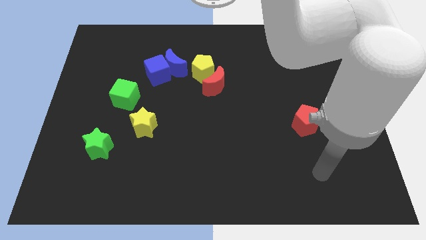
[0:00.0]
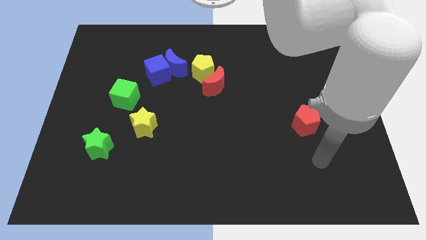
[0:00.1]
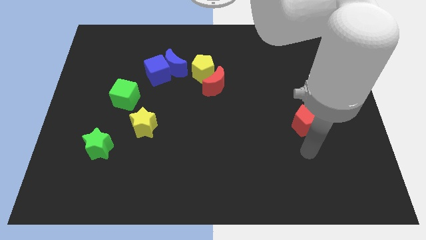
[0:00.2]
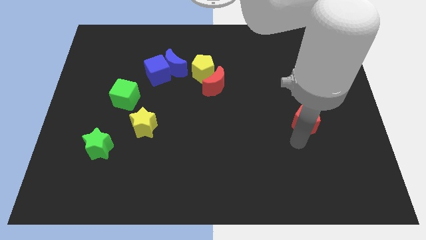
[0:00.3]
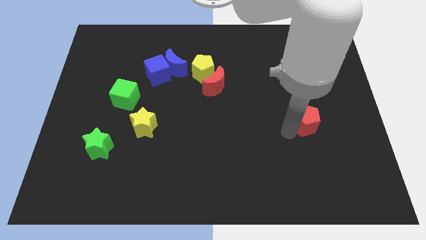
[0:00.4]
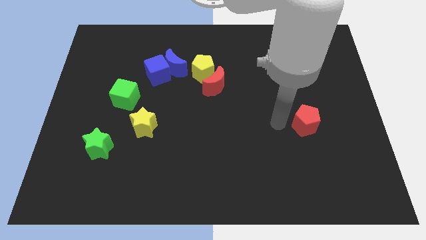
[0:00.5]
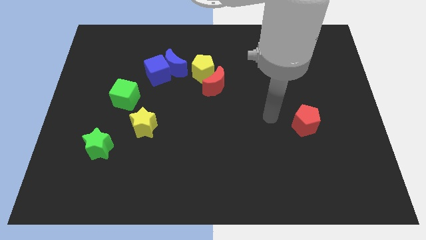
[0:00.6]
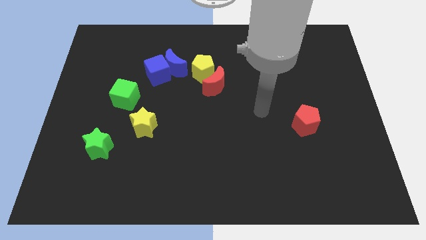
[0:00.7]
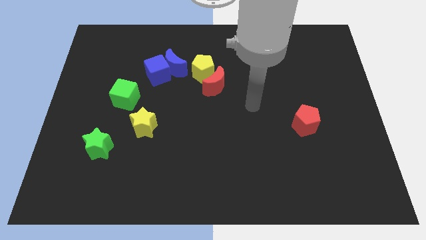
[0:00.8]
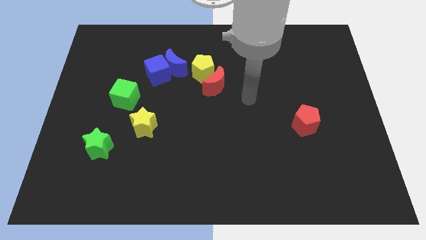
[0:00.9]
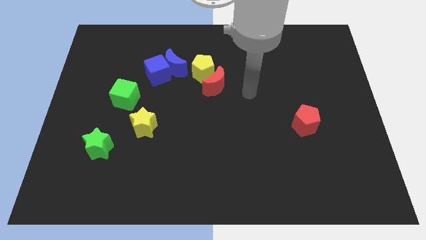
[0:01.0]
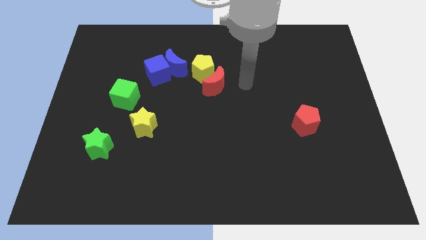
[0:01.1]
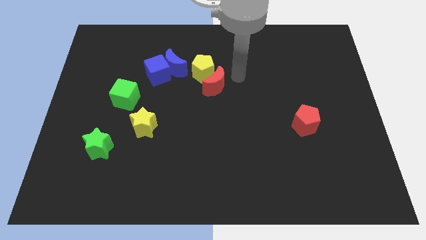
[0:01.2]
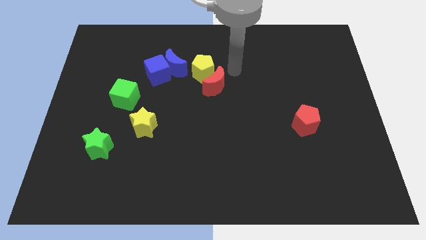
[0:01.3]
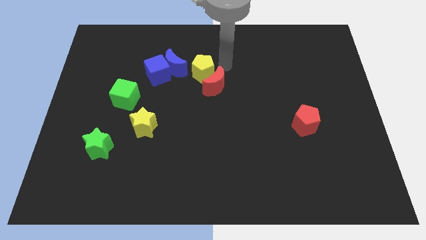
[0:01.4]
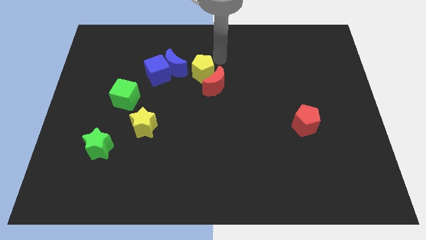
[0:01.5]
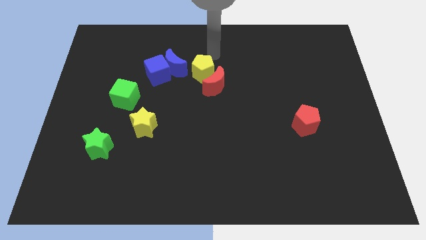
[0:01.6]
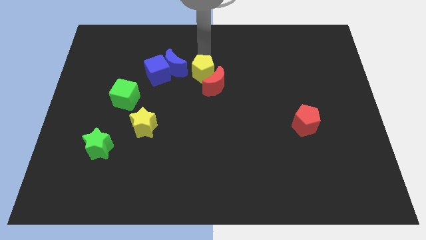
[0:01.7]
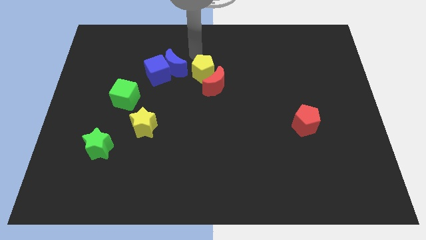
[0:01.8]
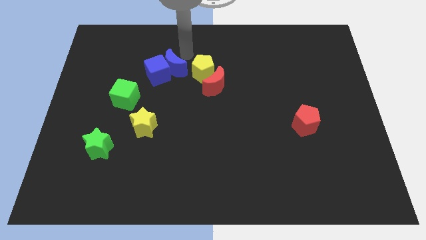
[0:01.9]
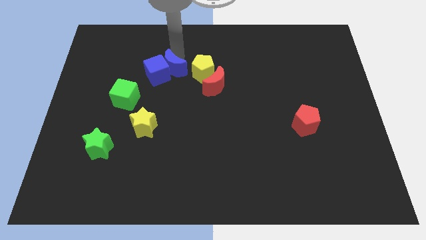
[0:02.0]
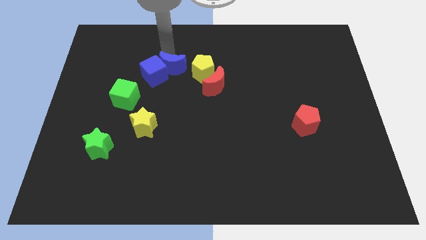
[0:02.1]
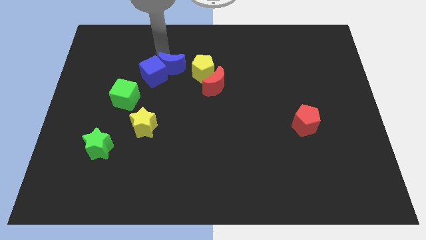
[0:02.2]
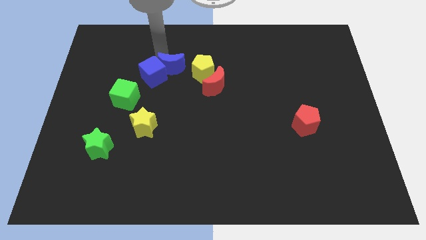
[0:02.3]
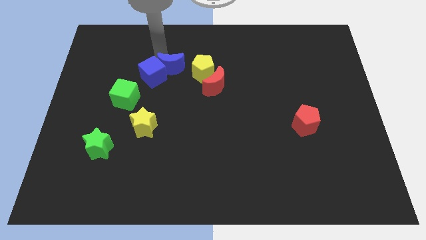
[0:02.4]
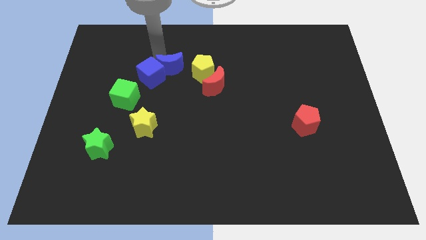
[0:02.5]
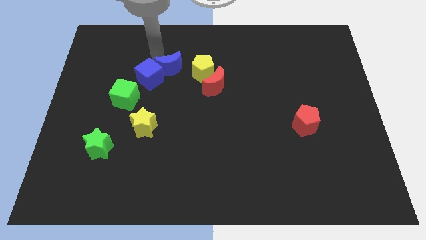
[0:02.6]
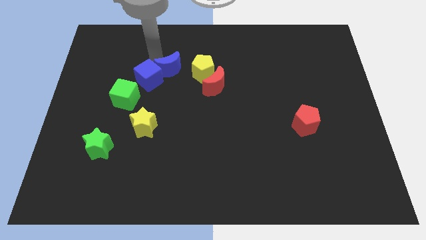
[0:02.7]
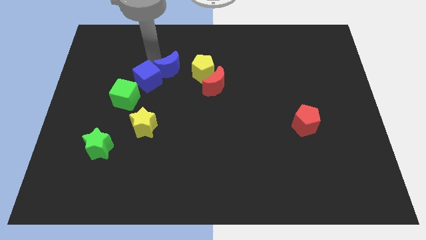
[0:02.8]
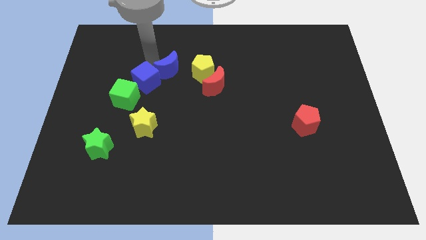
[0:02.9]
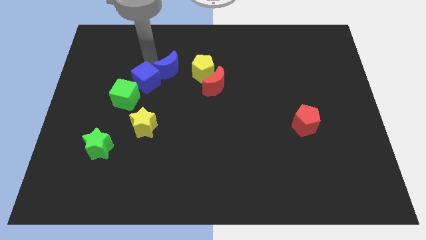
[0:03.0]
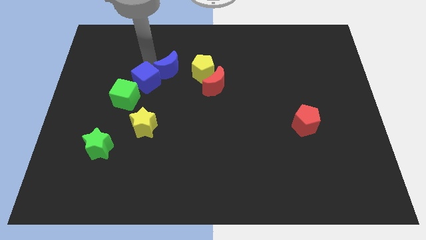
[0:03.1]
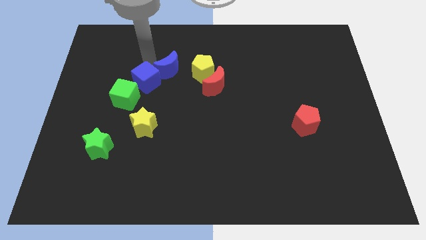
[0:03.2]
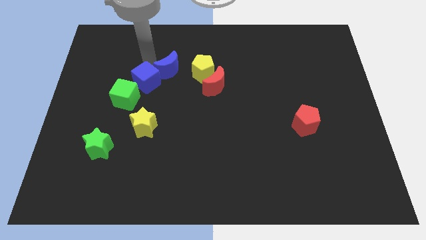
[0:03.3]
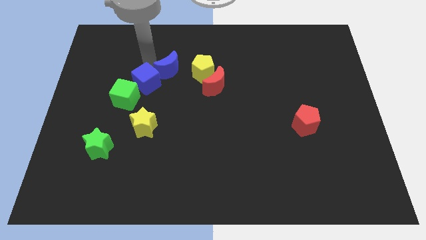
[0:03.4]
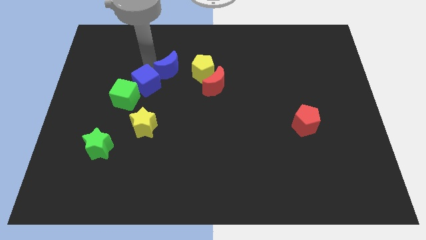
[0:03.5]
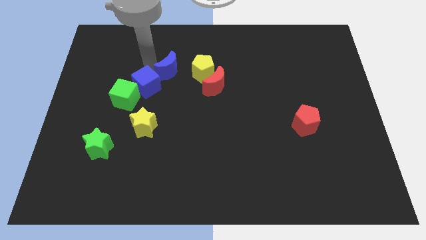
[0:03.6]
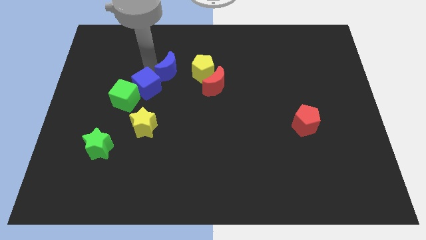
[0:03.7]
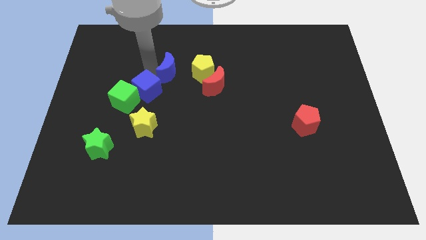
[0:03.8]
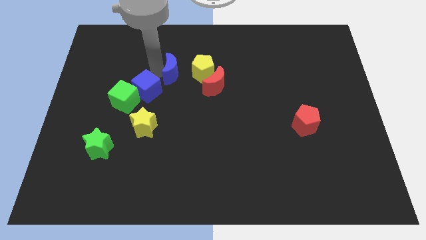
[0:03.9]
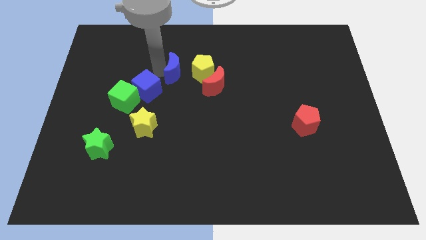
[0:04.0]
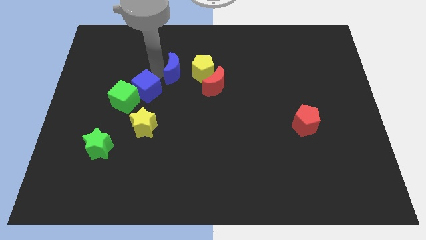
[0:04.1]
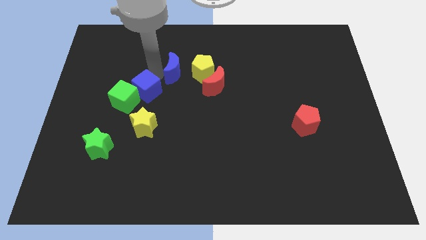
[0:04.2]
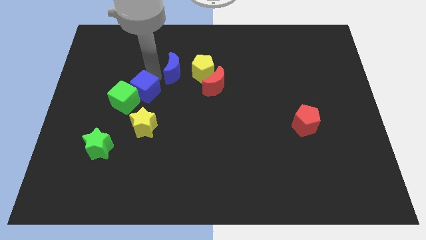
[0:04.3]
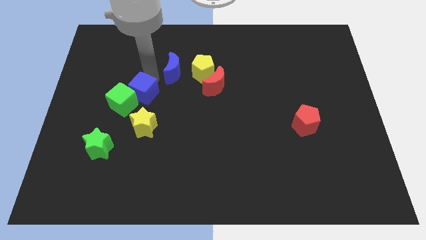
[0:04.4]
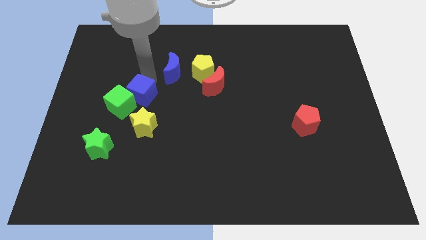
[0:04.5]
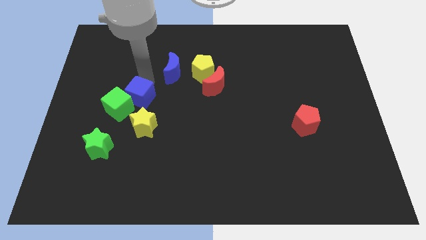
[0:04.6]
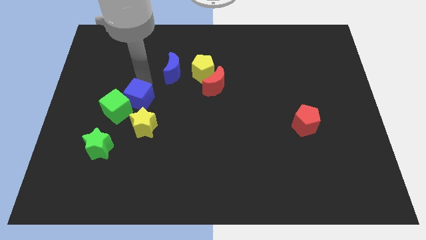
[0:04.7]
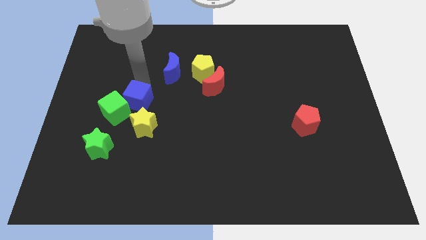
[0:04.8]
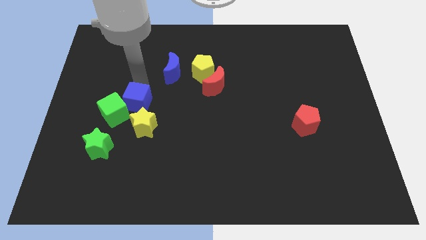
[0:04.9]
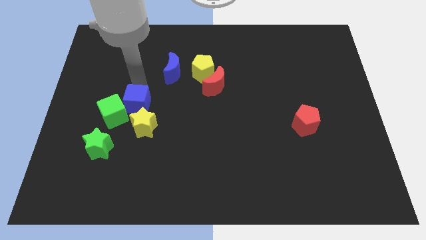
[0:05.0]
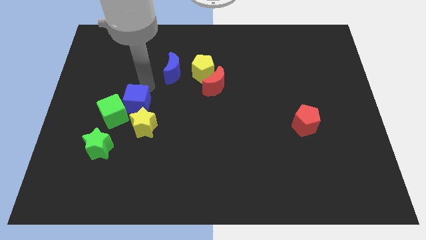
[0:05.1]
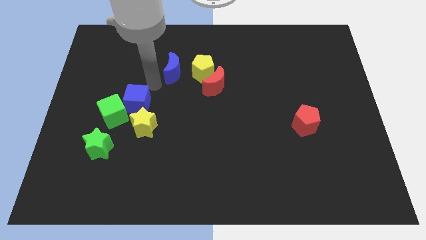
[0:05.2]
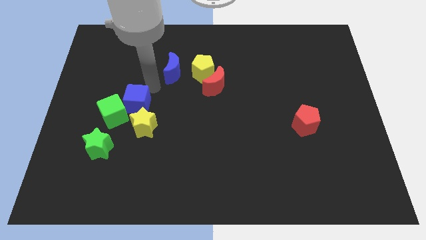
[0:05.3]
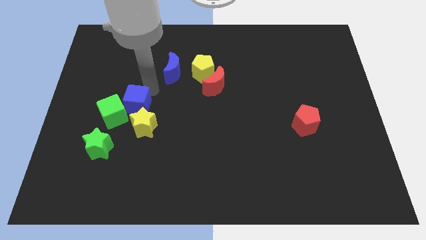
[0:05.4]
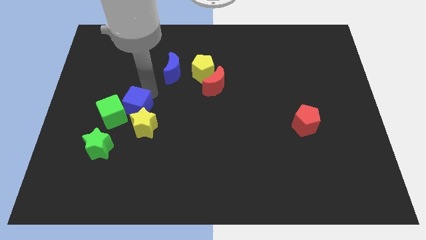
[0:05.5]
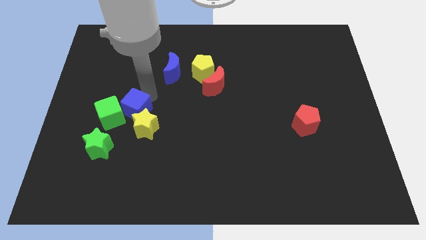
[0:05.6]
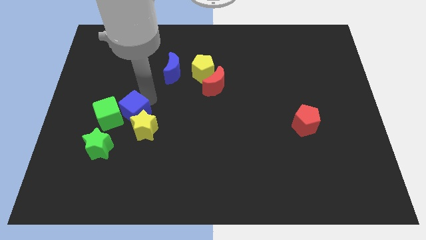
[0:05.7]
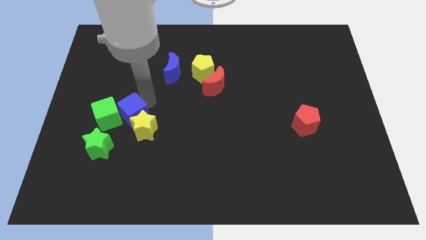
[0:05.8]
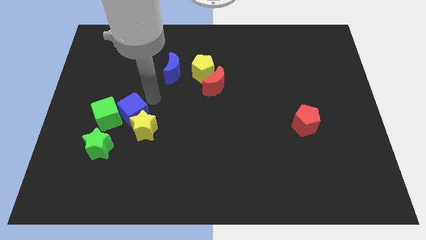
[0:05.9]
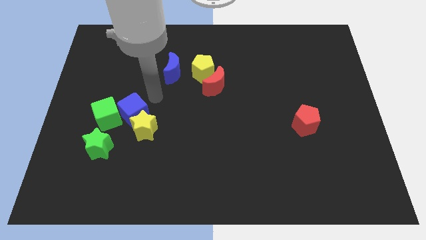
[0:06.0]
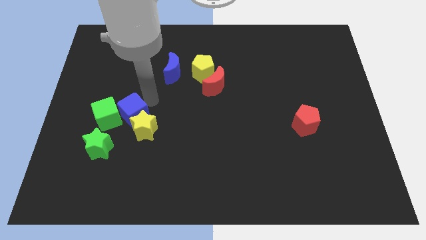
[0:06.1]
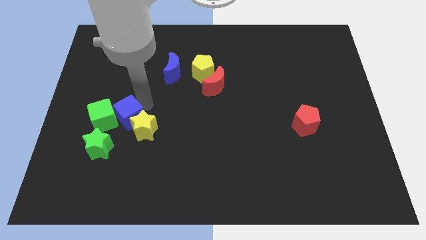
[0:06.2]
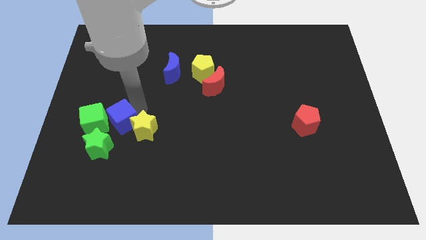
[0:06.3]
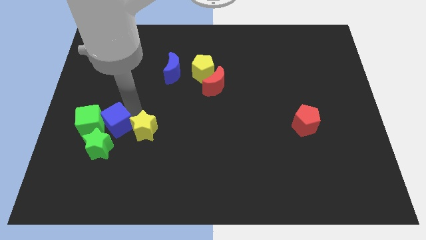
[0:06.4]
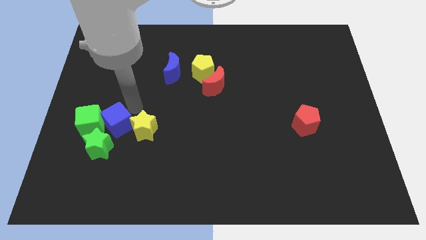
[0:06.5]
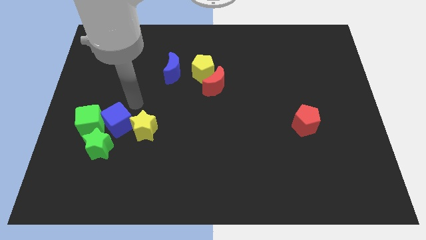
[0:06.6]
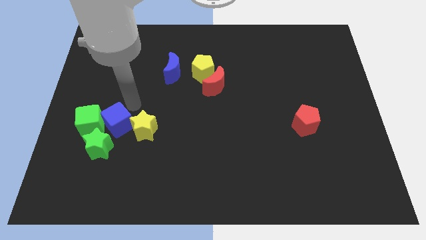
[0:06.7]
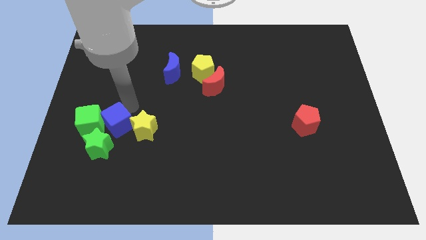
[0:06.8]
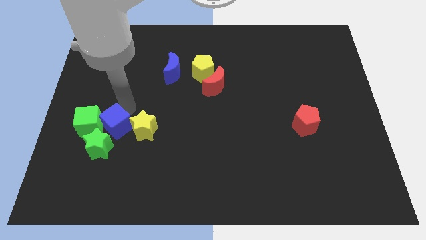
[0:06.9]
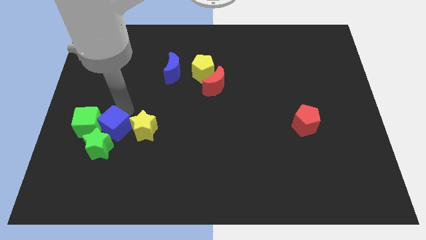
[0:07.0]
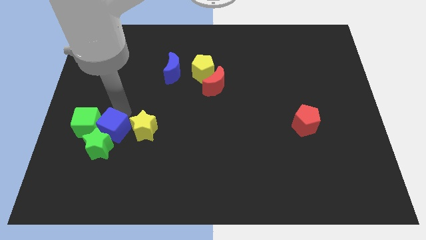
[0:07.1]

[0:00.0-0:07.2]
move the blue cube towards the green star
